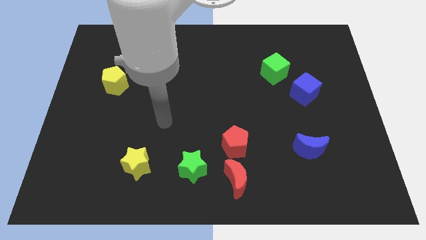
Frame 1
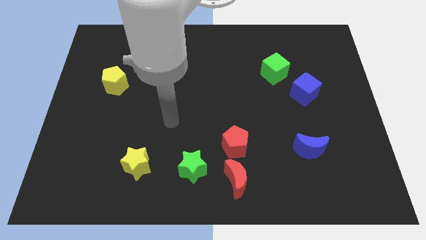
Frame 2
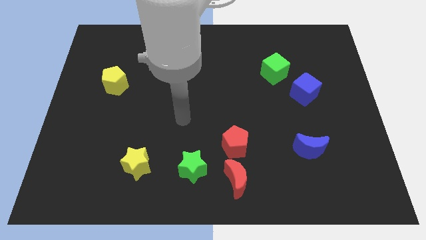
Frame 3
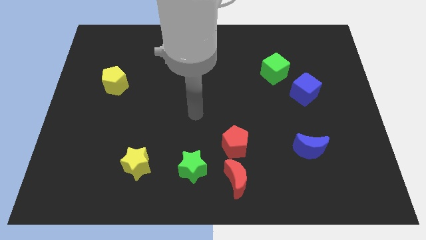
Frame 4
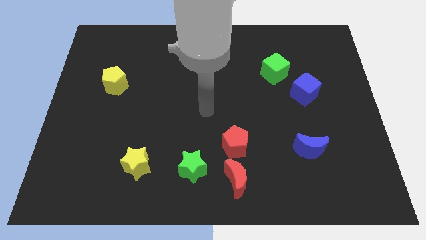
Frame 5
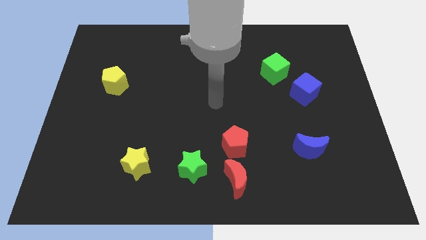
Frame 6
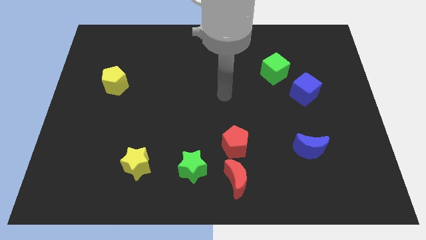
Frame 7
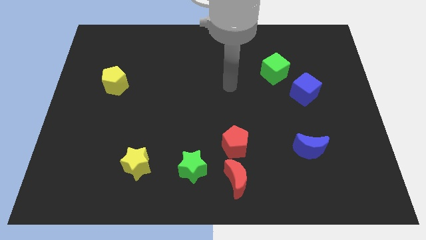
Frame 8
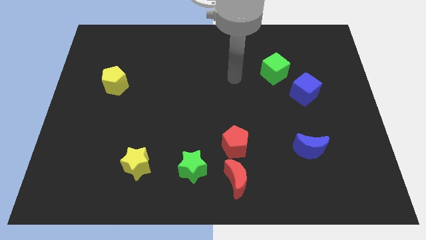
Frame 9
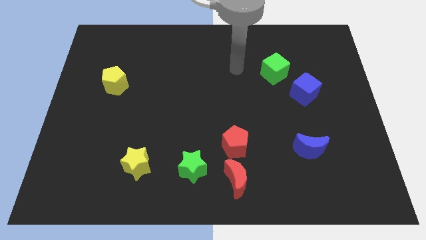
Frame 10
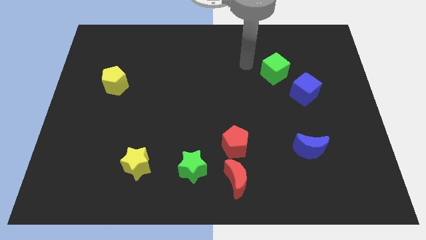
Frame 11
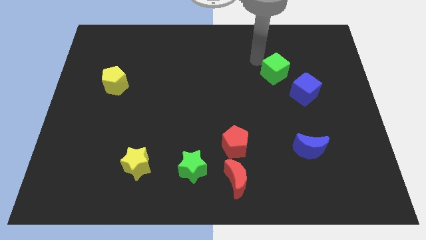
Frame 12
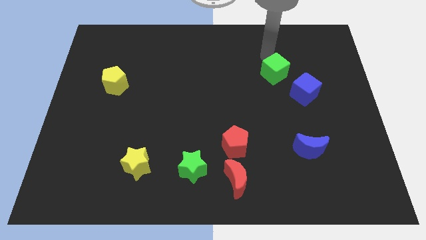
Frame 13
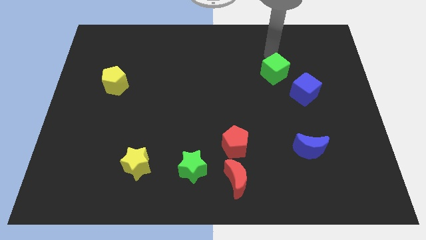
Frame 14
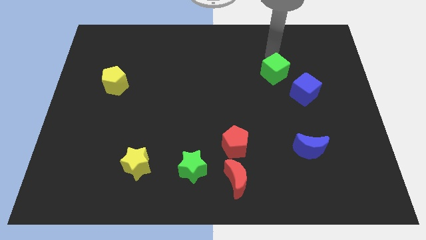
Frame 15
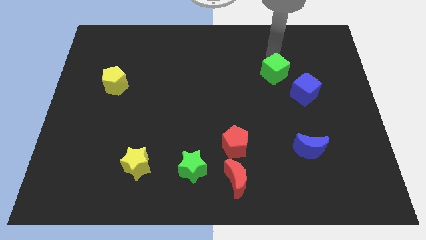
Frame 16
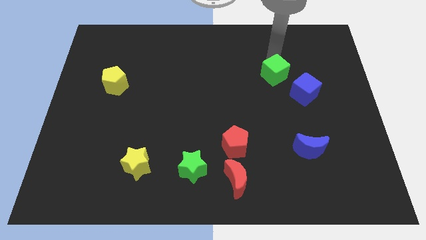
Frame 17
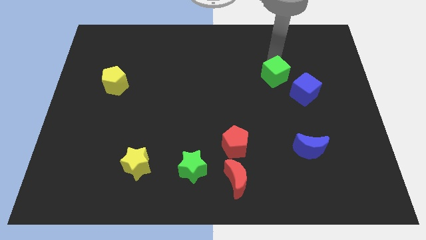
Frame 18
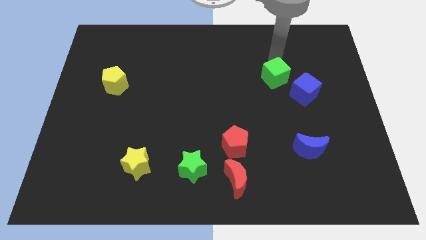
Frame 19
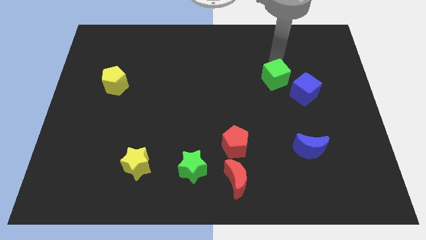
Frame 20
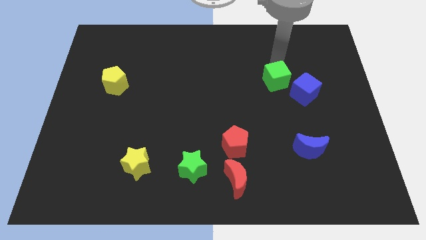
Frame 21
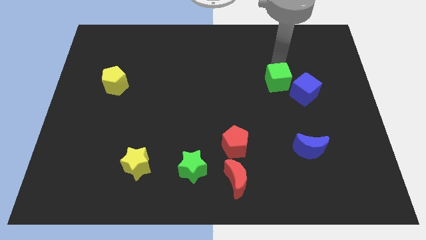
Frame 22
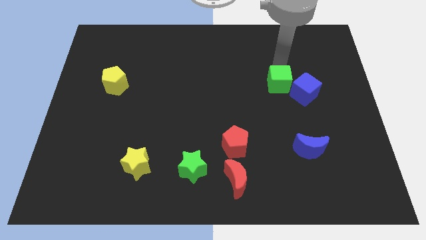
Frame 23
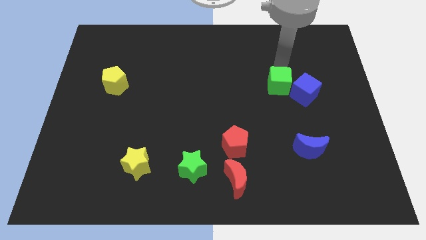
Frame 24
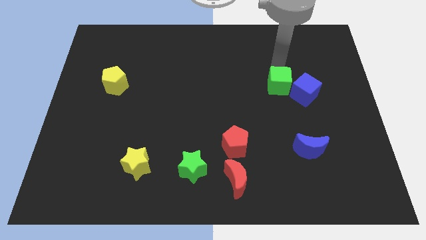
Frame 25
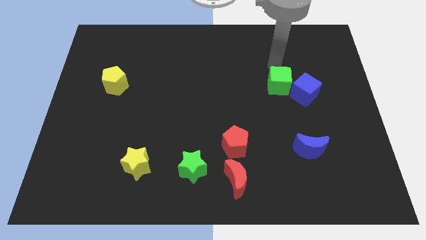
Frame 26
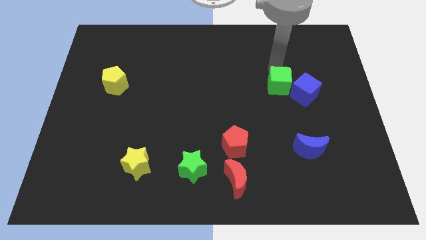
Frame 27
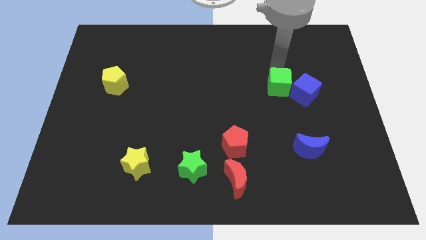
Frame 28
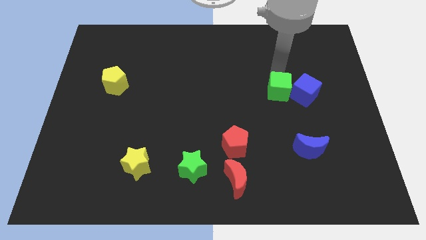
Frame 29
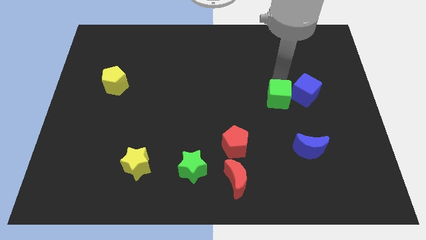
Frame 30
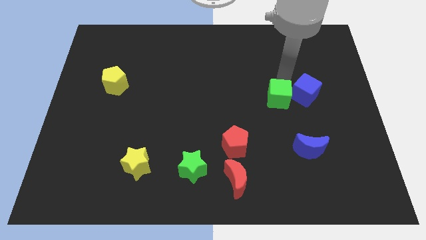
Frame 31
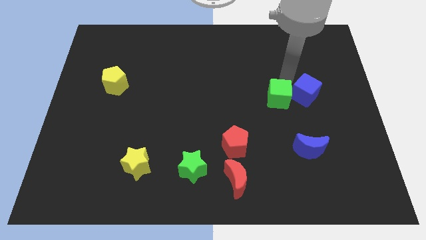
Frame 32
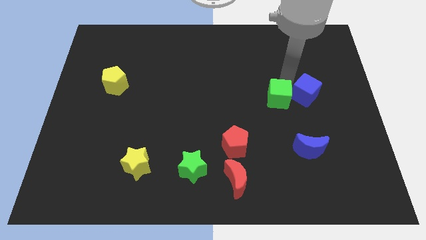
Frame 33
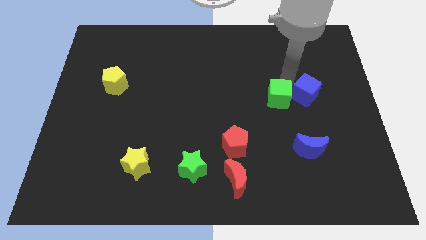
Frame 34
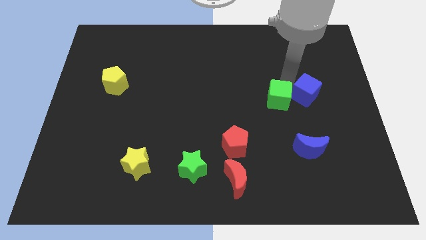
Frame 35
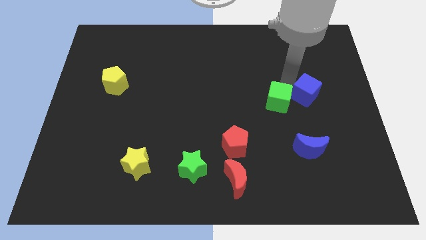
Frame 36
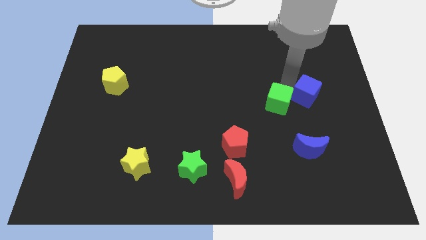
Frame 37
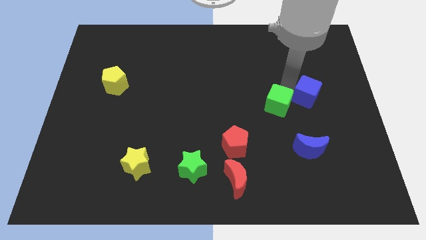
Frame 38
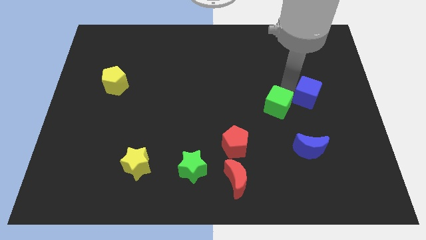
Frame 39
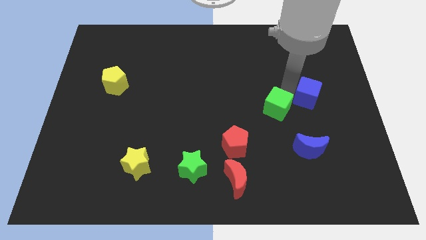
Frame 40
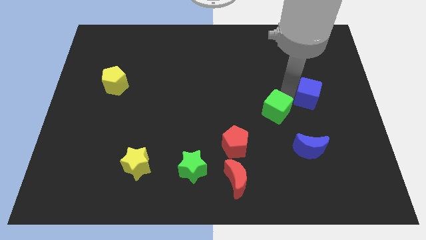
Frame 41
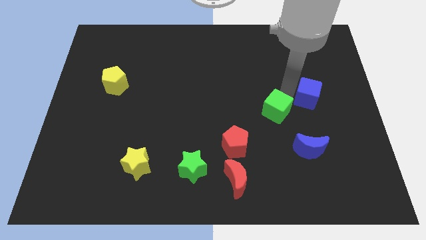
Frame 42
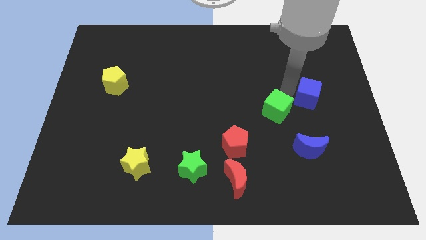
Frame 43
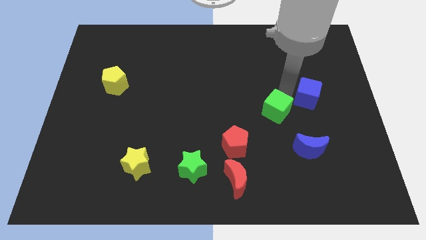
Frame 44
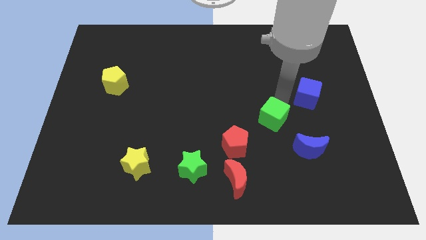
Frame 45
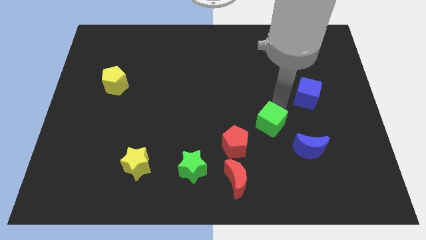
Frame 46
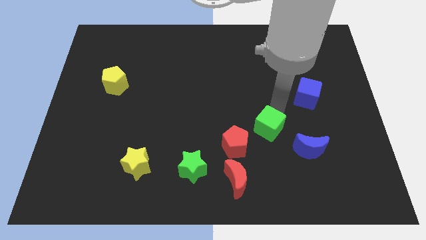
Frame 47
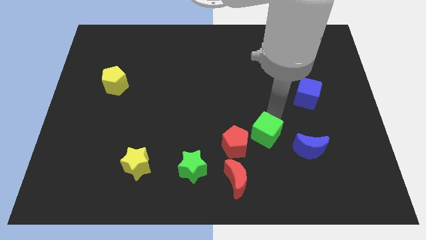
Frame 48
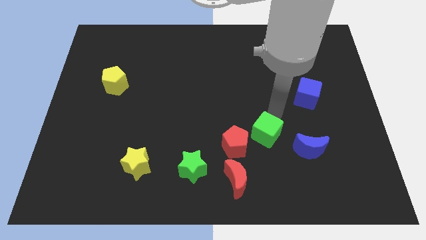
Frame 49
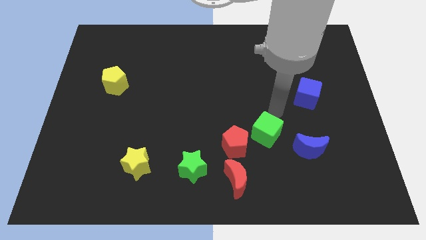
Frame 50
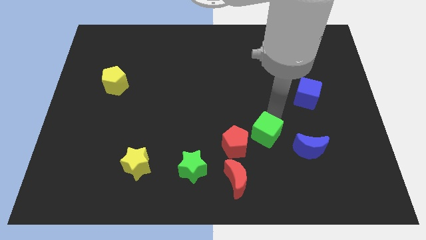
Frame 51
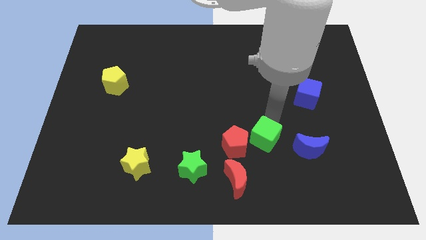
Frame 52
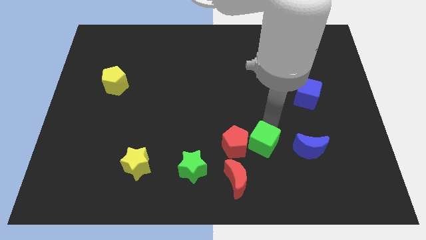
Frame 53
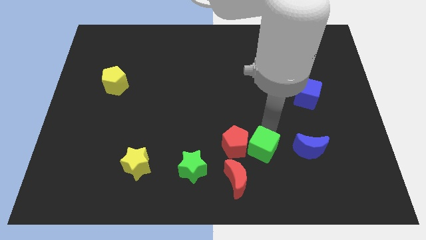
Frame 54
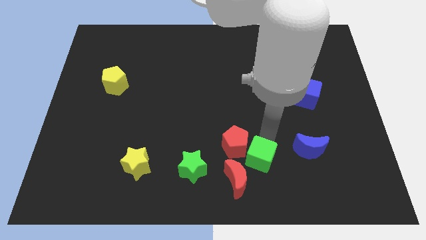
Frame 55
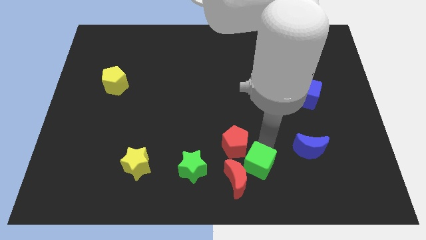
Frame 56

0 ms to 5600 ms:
push the green cube next to the red moon

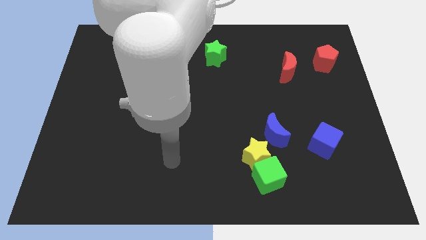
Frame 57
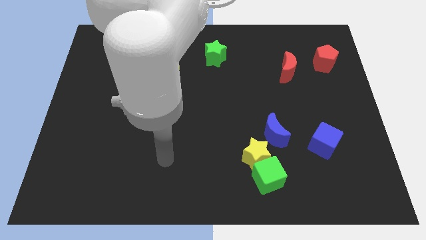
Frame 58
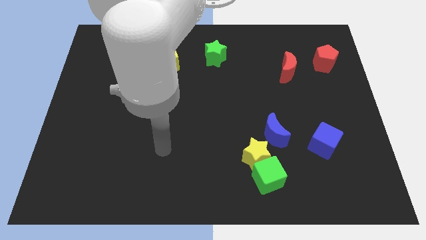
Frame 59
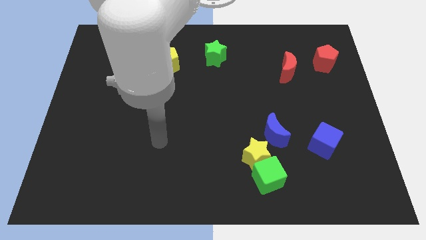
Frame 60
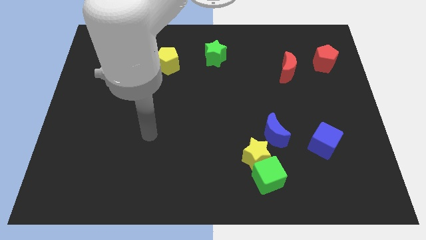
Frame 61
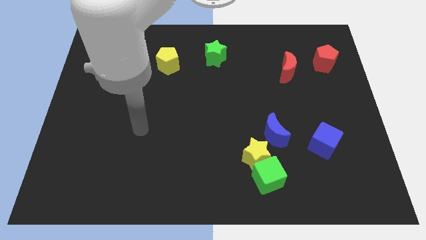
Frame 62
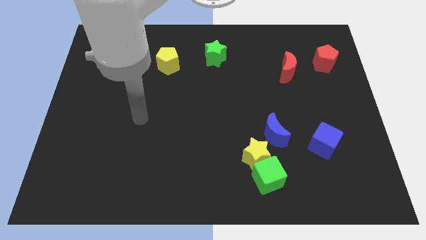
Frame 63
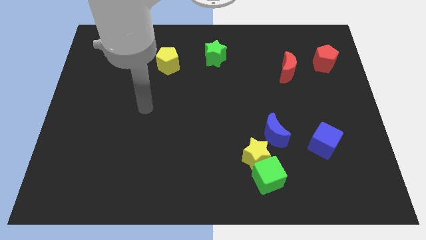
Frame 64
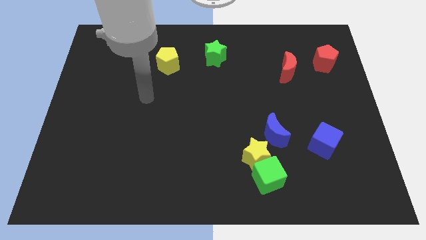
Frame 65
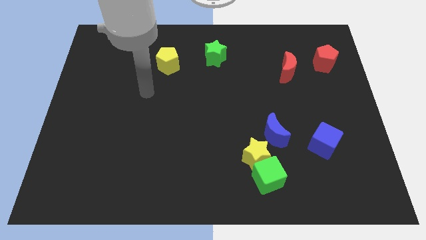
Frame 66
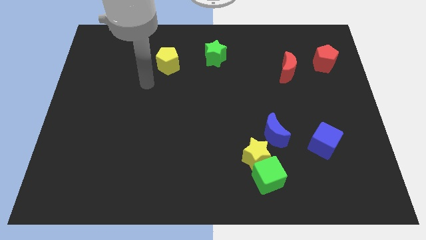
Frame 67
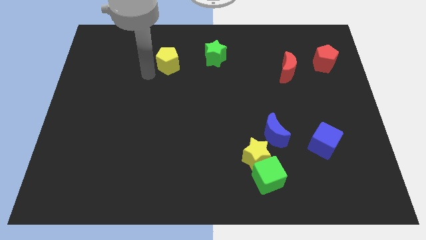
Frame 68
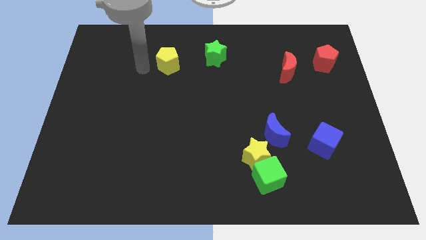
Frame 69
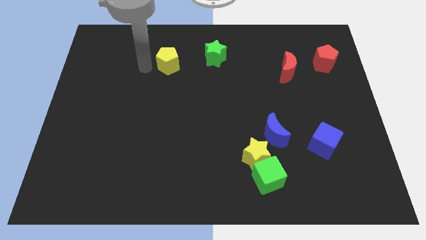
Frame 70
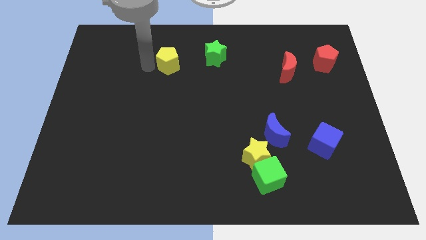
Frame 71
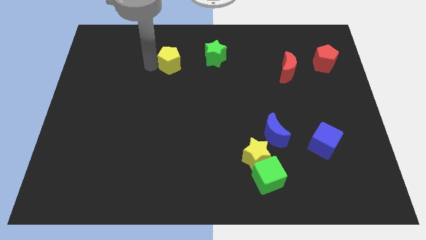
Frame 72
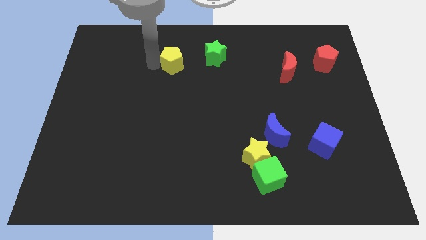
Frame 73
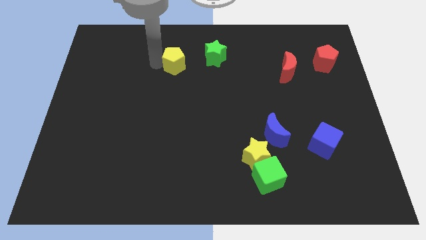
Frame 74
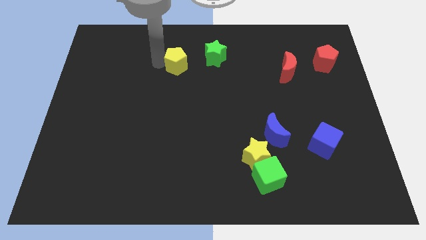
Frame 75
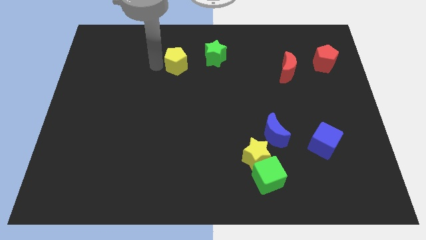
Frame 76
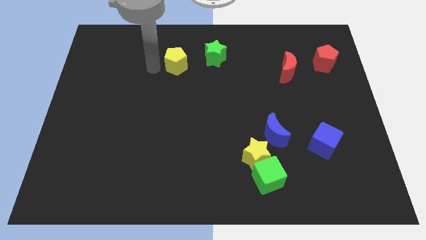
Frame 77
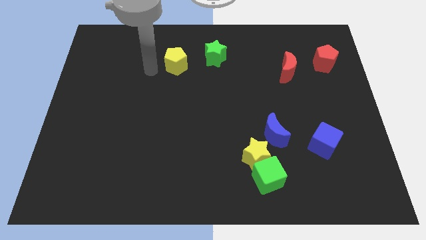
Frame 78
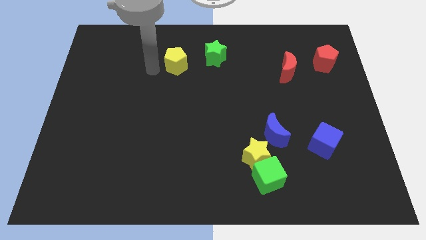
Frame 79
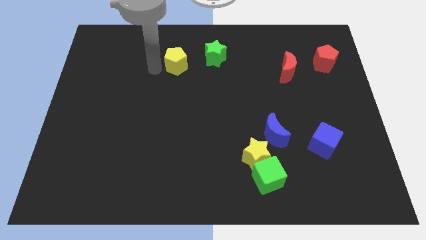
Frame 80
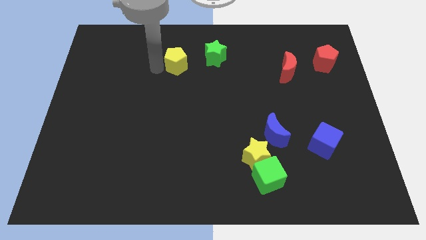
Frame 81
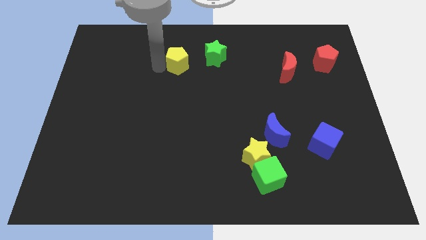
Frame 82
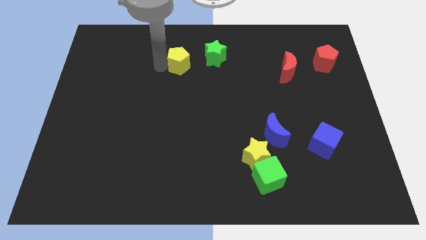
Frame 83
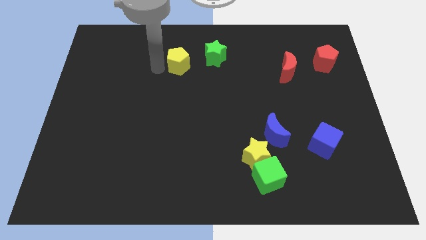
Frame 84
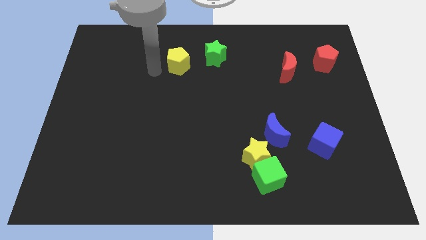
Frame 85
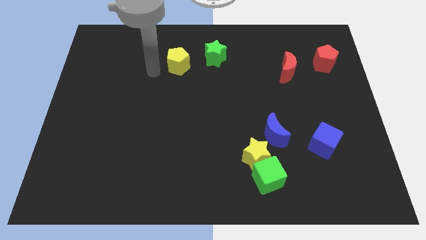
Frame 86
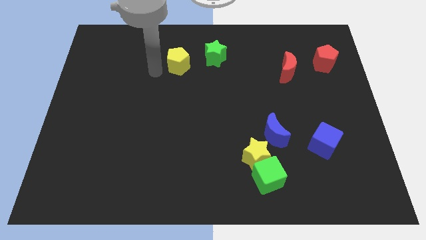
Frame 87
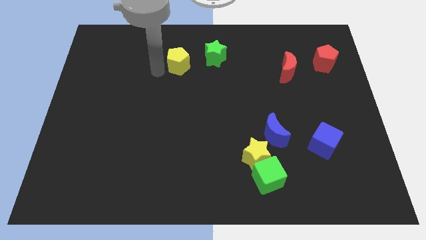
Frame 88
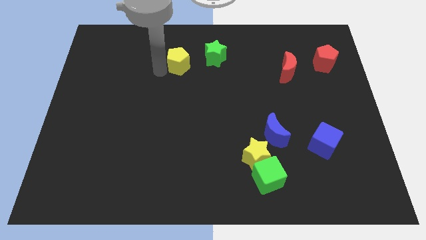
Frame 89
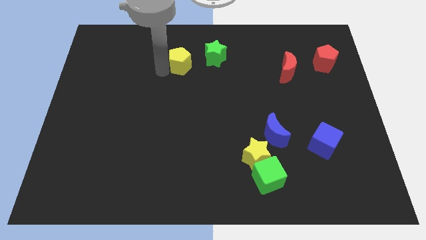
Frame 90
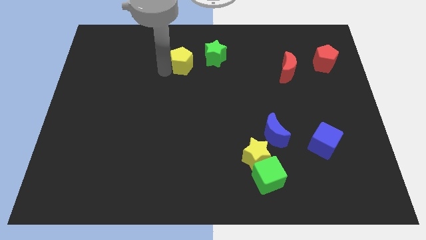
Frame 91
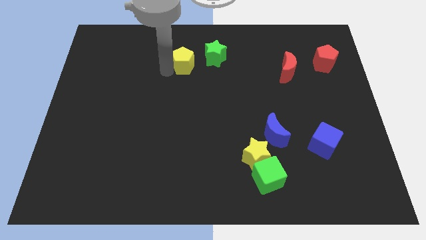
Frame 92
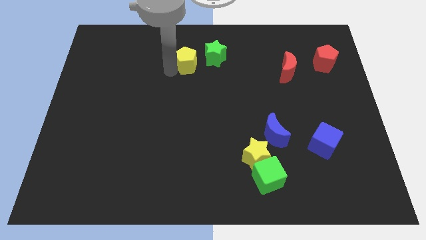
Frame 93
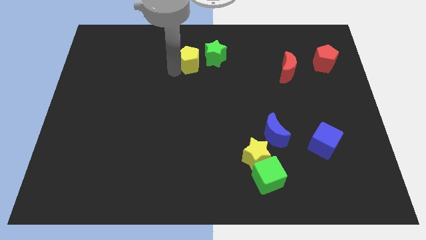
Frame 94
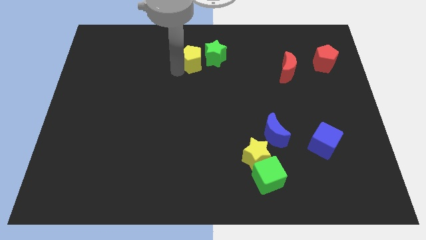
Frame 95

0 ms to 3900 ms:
slide the yellow pentagon close to the green star
